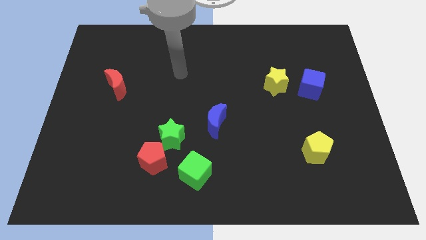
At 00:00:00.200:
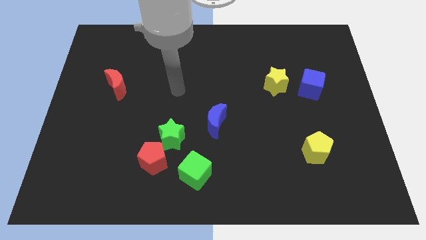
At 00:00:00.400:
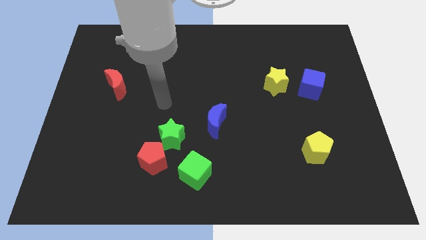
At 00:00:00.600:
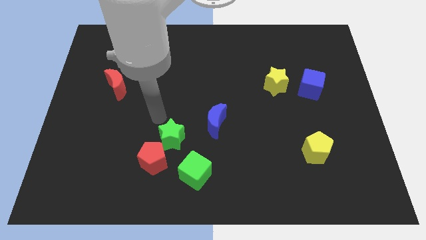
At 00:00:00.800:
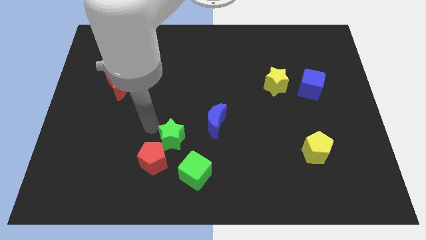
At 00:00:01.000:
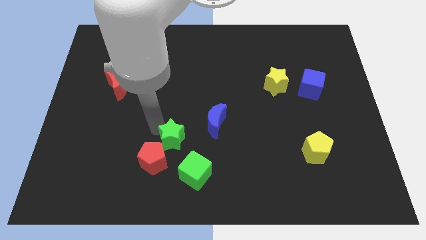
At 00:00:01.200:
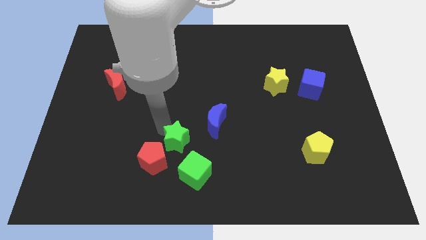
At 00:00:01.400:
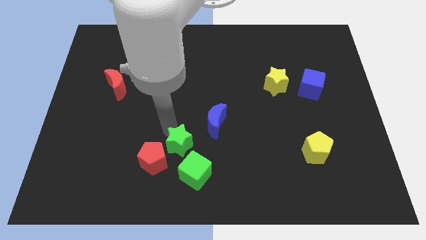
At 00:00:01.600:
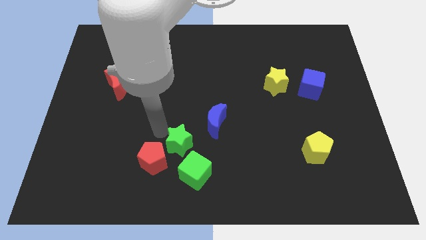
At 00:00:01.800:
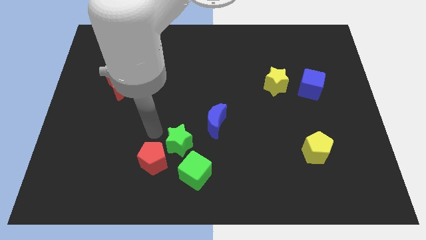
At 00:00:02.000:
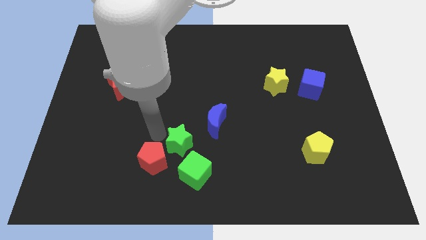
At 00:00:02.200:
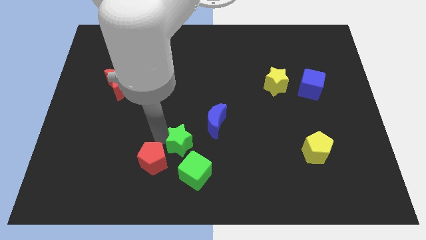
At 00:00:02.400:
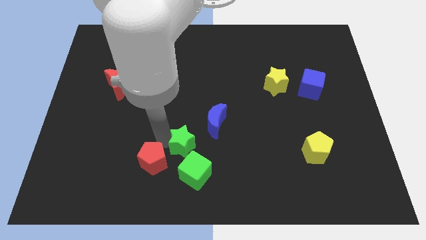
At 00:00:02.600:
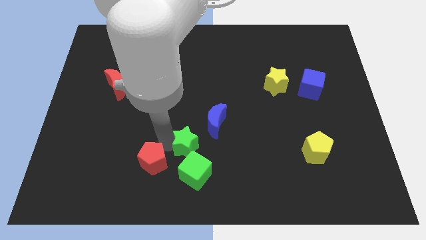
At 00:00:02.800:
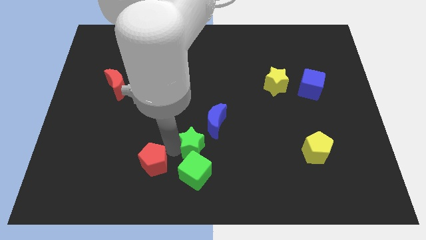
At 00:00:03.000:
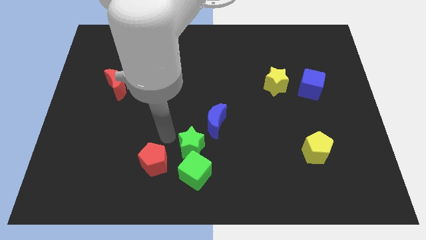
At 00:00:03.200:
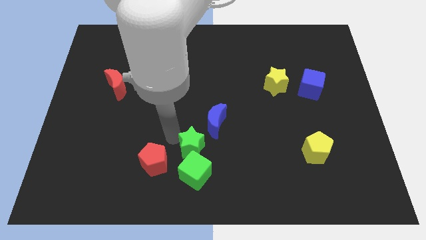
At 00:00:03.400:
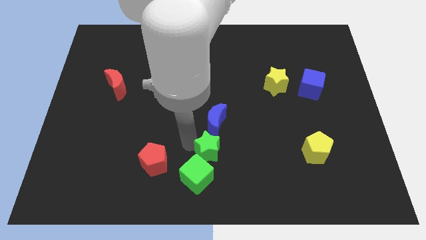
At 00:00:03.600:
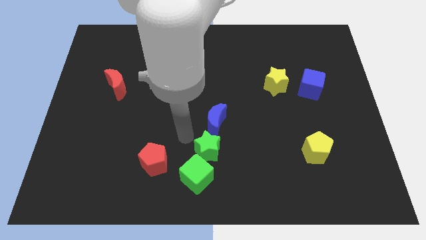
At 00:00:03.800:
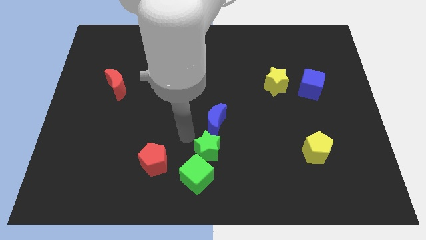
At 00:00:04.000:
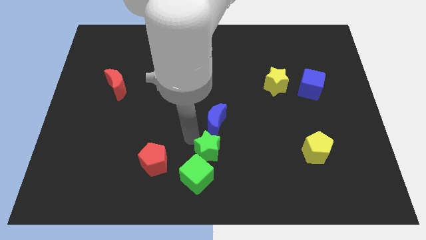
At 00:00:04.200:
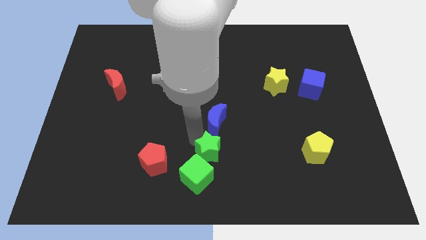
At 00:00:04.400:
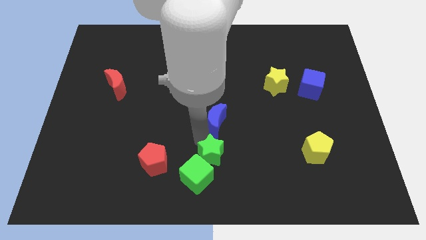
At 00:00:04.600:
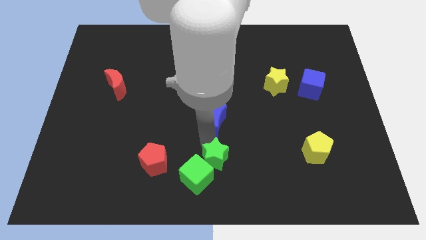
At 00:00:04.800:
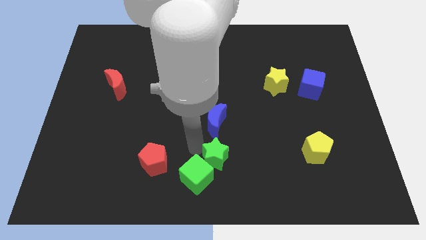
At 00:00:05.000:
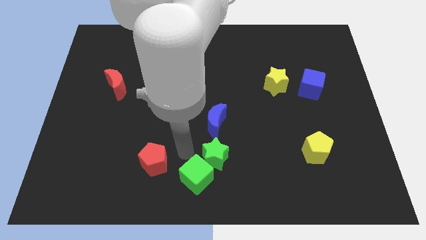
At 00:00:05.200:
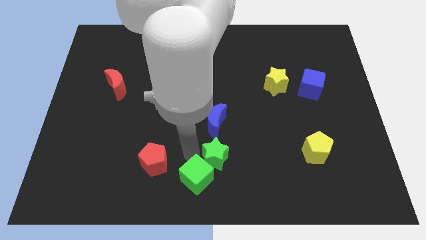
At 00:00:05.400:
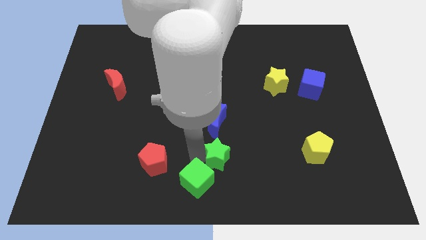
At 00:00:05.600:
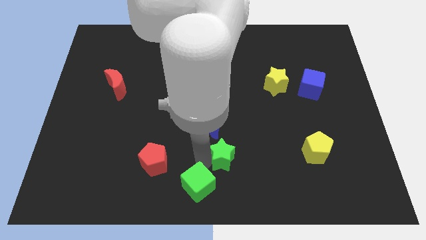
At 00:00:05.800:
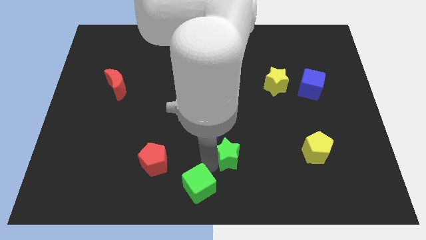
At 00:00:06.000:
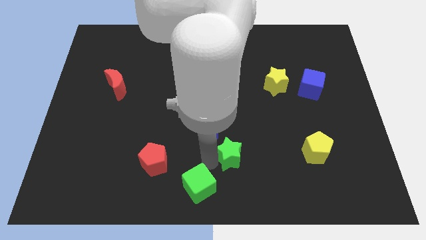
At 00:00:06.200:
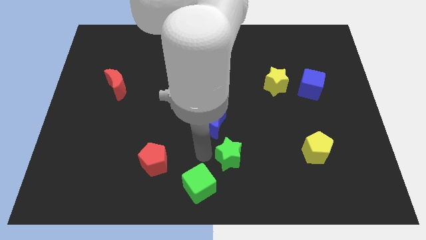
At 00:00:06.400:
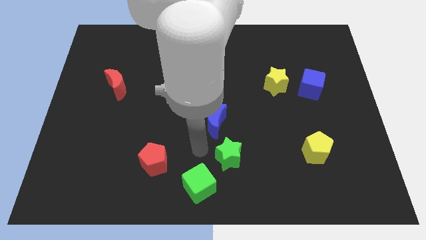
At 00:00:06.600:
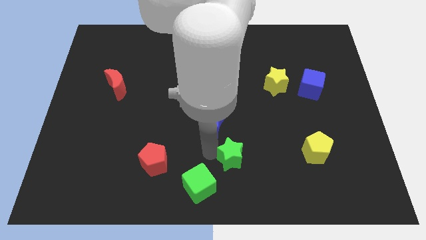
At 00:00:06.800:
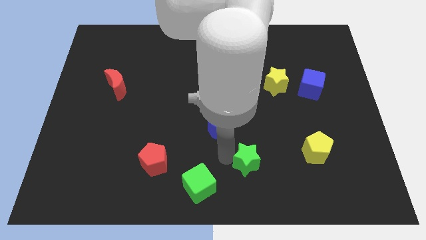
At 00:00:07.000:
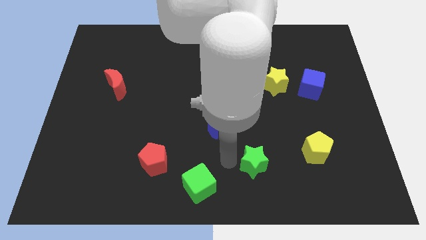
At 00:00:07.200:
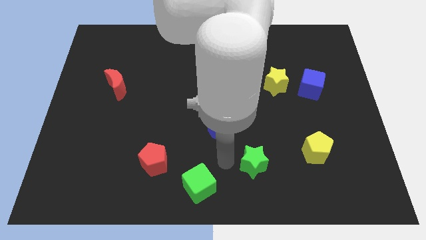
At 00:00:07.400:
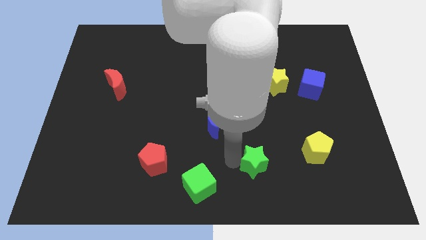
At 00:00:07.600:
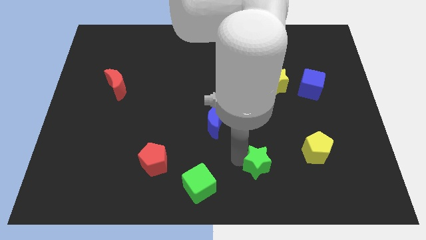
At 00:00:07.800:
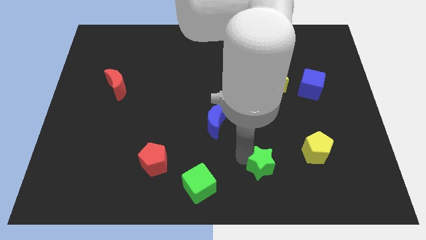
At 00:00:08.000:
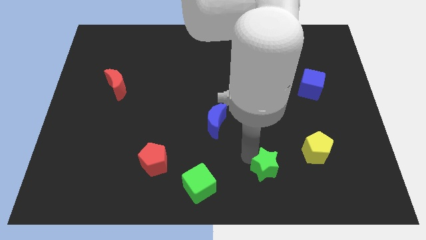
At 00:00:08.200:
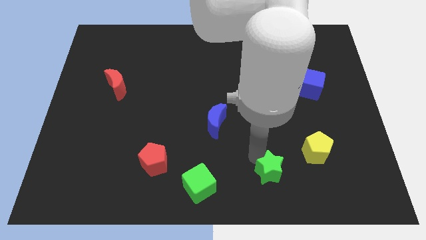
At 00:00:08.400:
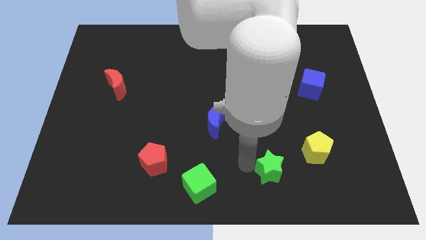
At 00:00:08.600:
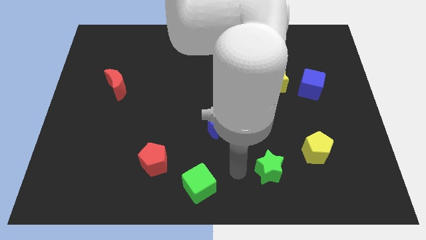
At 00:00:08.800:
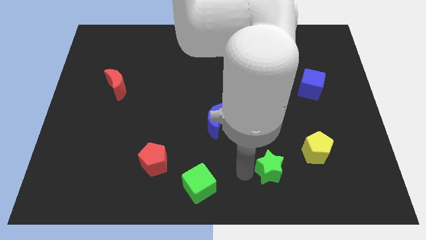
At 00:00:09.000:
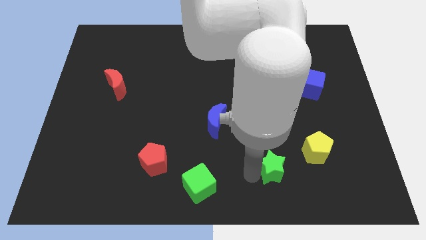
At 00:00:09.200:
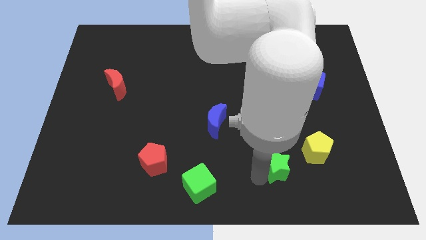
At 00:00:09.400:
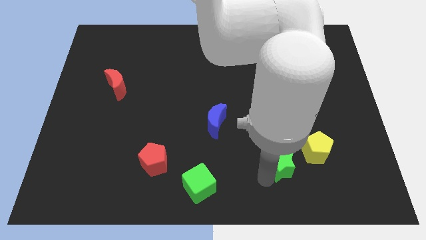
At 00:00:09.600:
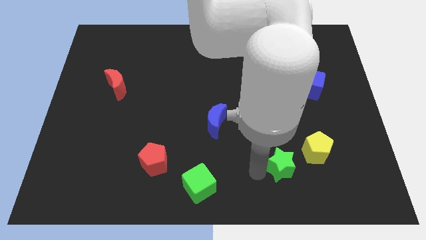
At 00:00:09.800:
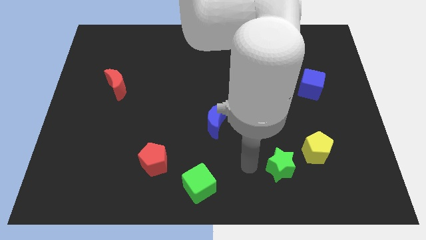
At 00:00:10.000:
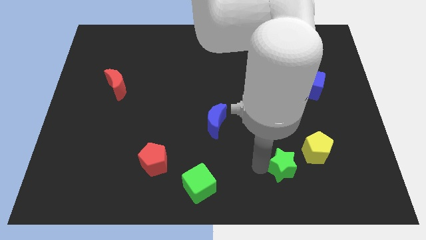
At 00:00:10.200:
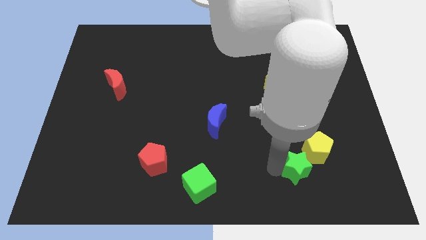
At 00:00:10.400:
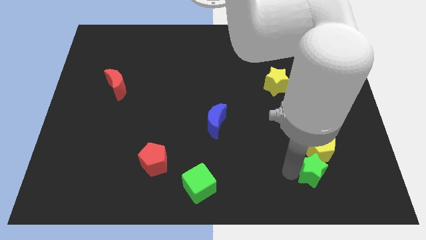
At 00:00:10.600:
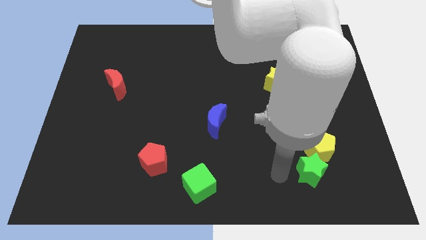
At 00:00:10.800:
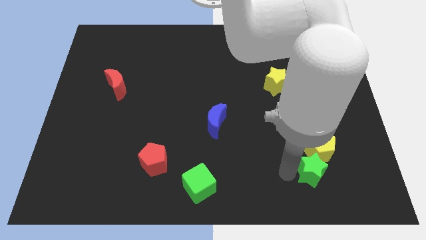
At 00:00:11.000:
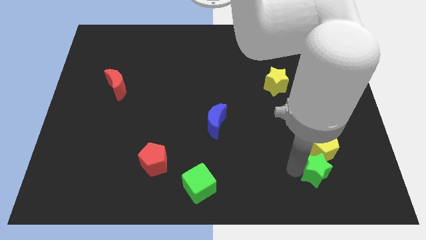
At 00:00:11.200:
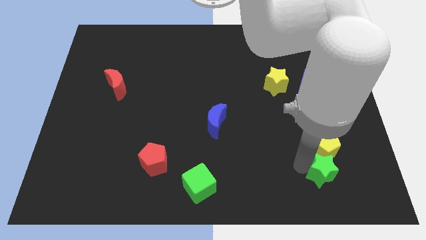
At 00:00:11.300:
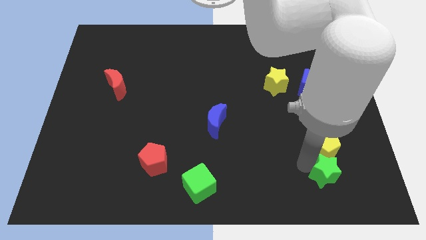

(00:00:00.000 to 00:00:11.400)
push the green star diagonally down and to the right of the yellow pentagon

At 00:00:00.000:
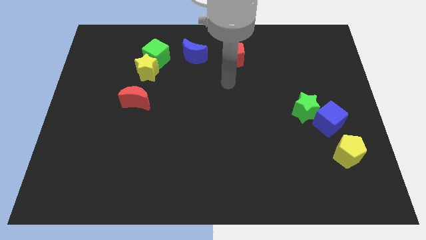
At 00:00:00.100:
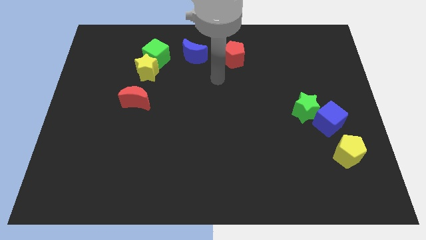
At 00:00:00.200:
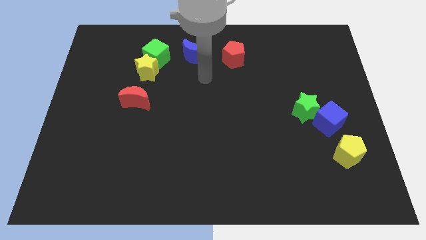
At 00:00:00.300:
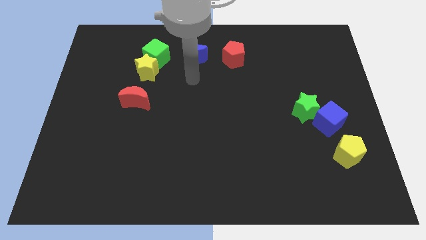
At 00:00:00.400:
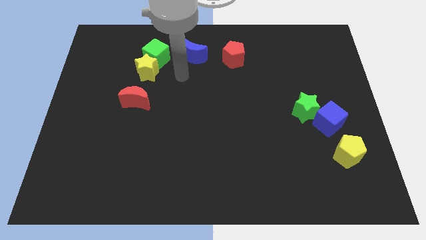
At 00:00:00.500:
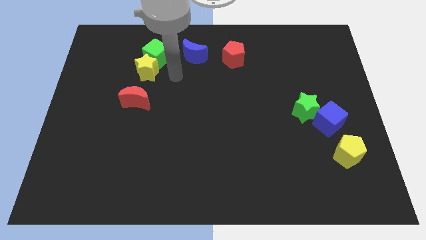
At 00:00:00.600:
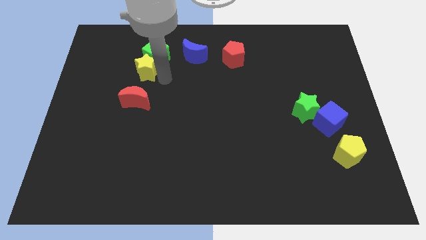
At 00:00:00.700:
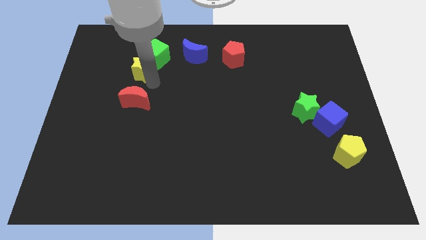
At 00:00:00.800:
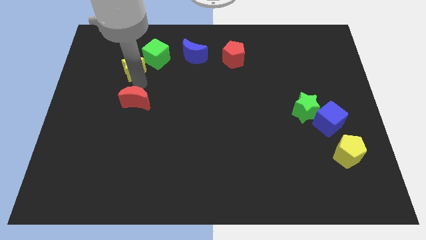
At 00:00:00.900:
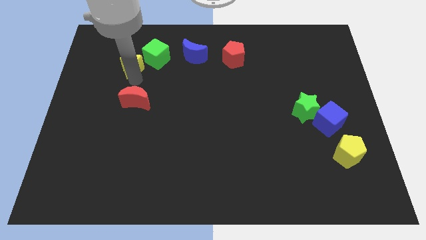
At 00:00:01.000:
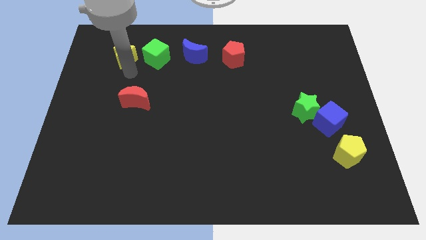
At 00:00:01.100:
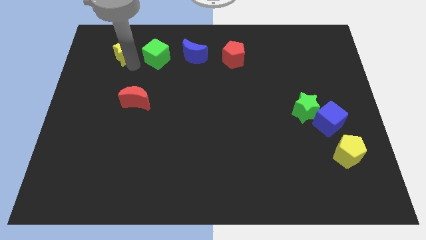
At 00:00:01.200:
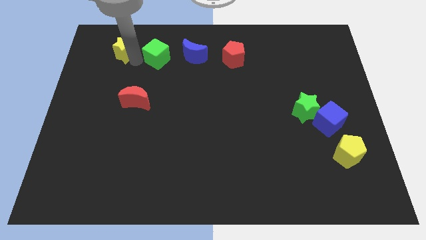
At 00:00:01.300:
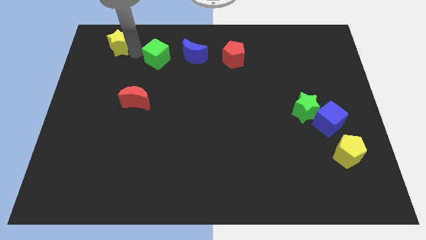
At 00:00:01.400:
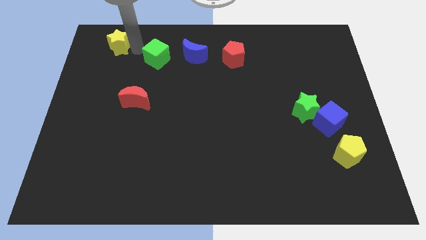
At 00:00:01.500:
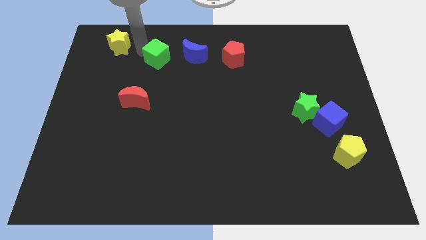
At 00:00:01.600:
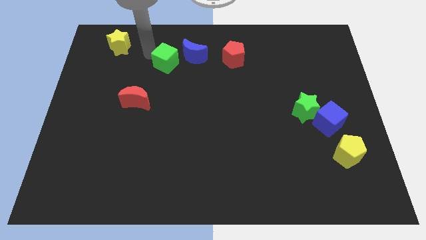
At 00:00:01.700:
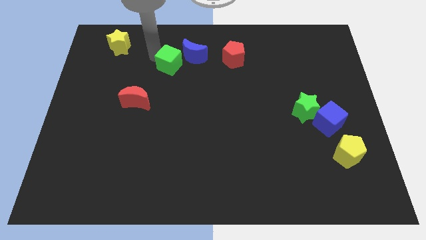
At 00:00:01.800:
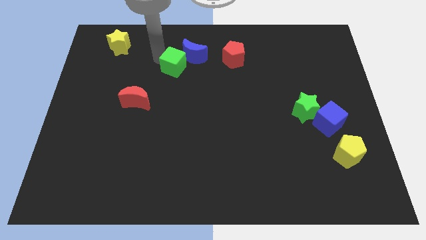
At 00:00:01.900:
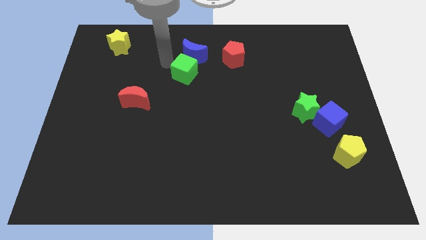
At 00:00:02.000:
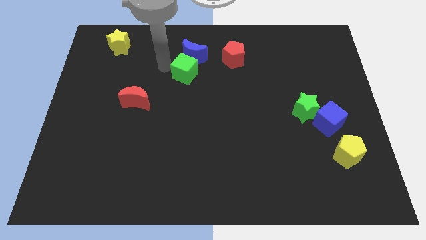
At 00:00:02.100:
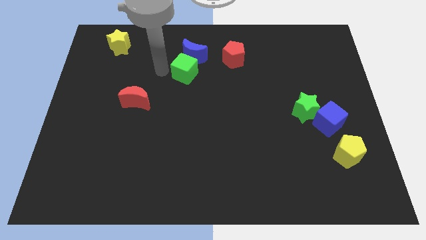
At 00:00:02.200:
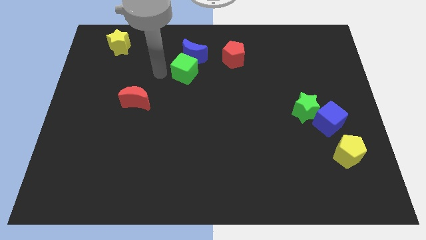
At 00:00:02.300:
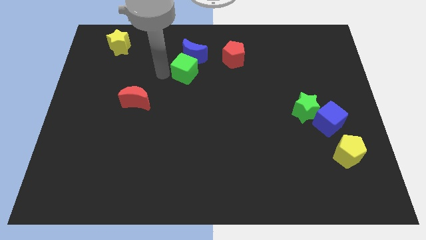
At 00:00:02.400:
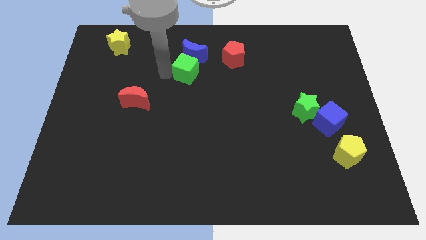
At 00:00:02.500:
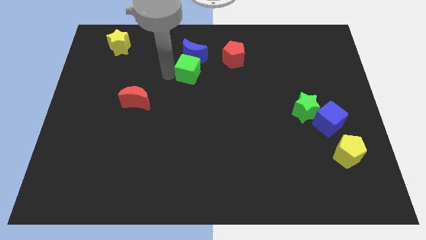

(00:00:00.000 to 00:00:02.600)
put the green cube diagonally down and to the right of the blue moon
